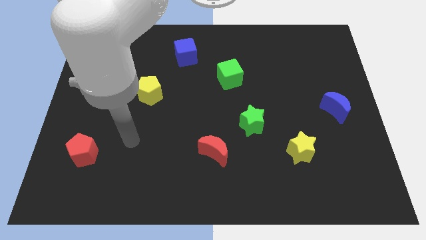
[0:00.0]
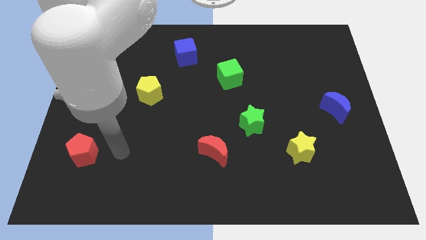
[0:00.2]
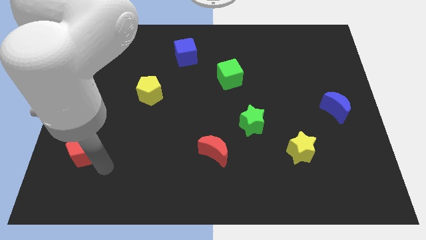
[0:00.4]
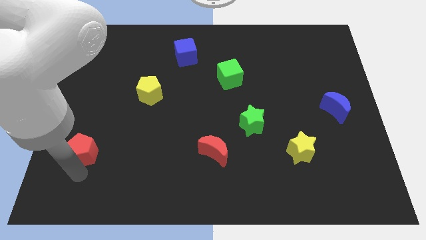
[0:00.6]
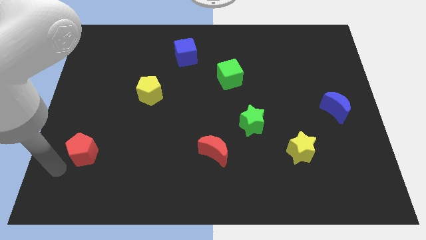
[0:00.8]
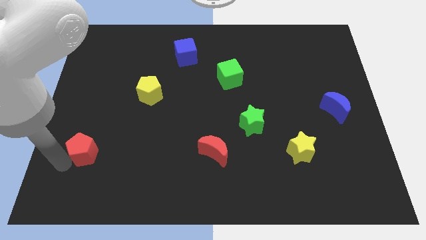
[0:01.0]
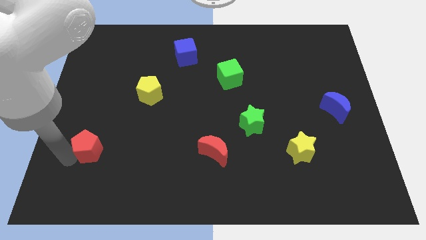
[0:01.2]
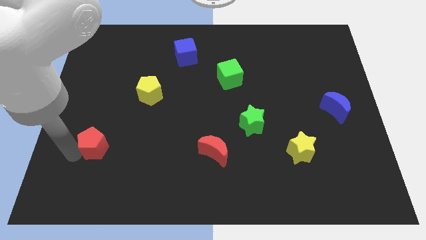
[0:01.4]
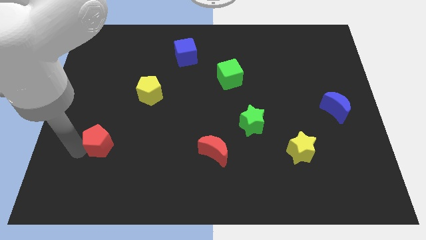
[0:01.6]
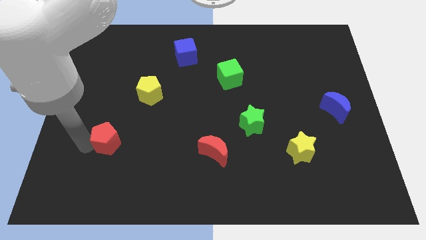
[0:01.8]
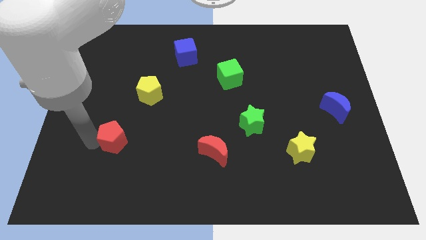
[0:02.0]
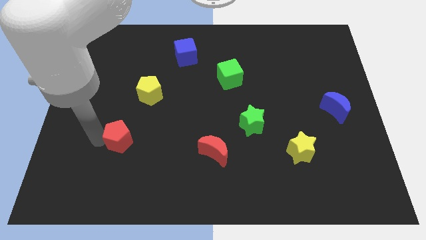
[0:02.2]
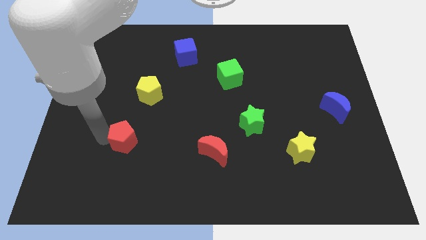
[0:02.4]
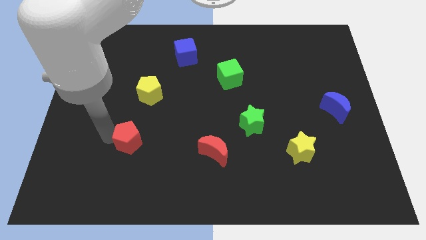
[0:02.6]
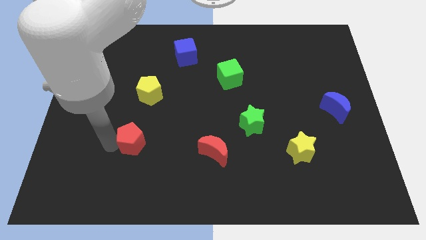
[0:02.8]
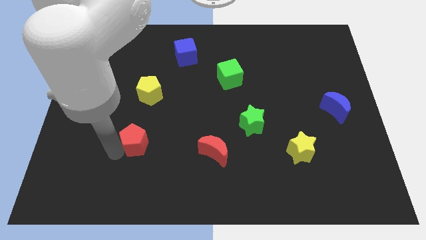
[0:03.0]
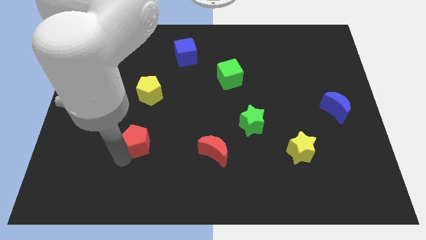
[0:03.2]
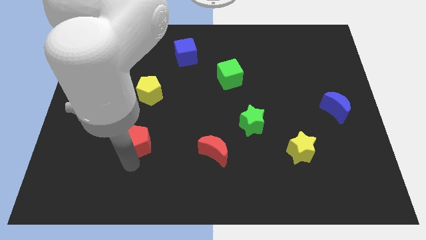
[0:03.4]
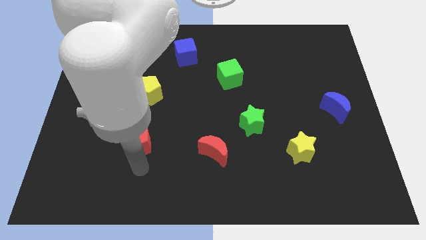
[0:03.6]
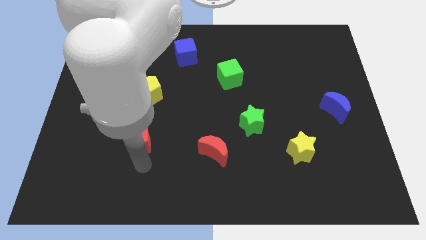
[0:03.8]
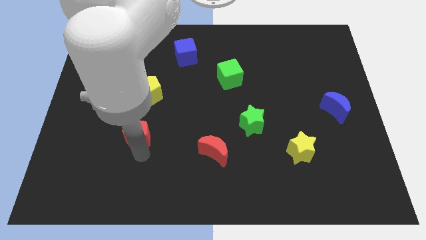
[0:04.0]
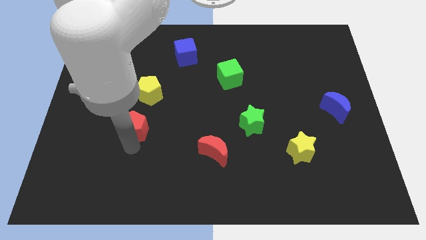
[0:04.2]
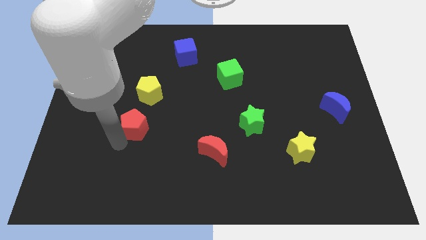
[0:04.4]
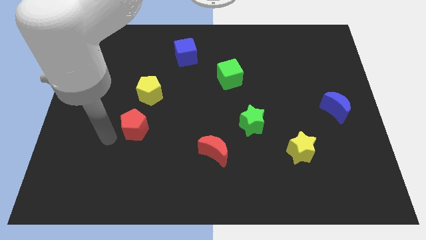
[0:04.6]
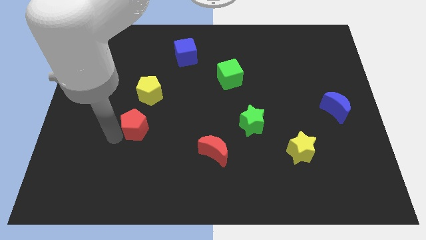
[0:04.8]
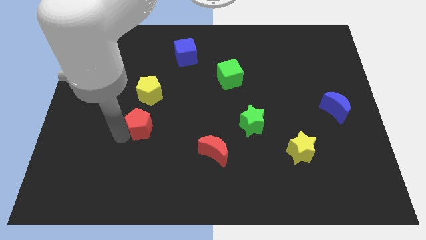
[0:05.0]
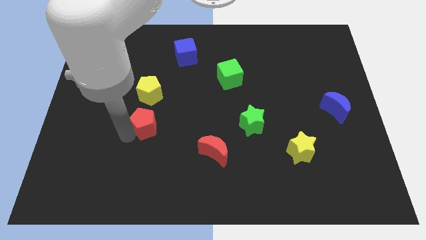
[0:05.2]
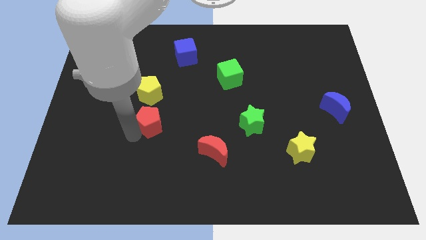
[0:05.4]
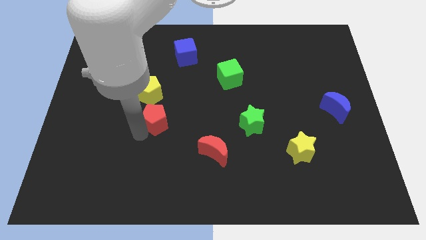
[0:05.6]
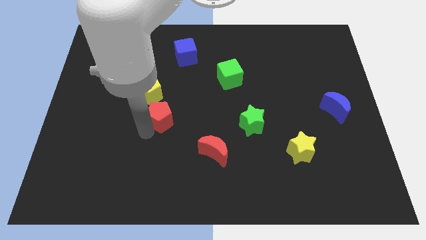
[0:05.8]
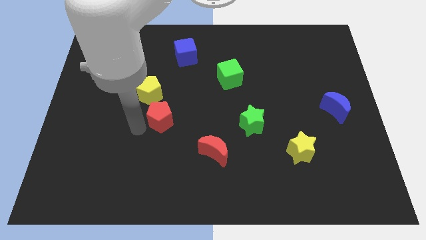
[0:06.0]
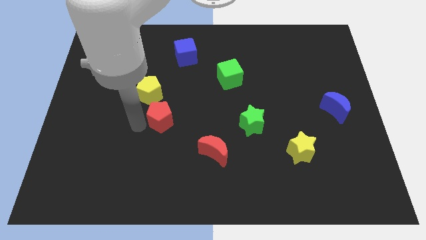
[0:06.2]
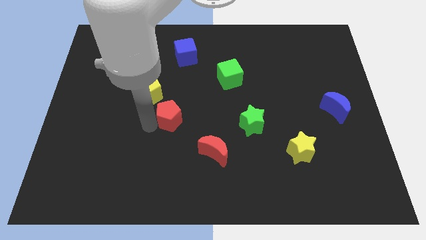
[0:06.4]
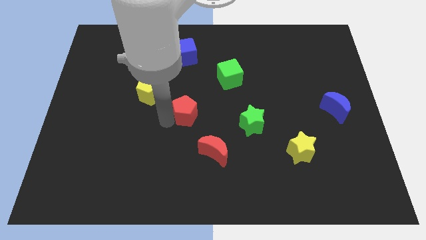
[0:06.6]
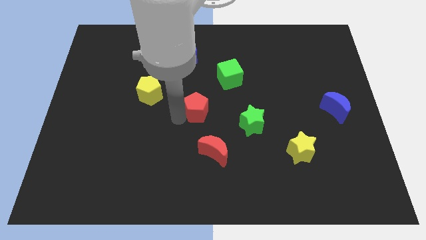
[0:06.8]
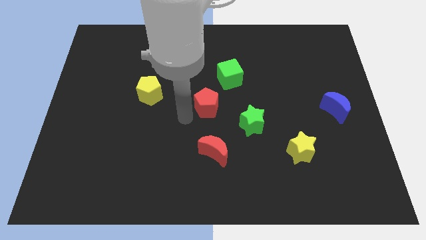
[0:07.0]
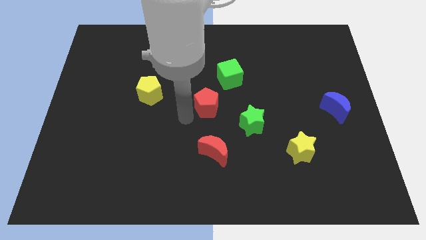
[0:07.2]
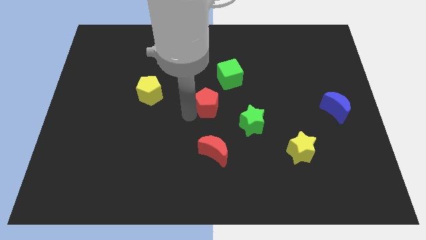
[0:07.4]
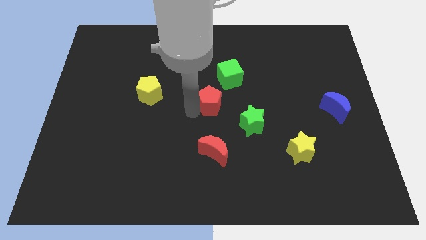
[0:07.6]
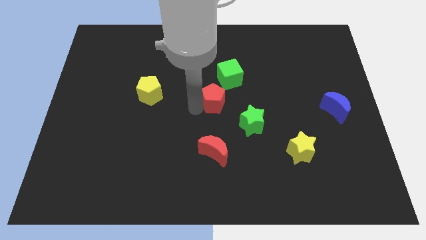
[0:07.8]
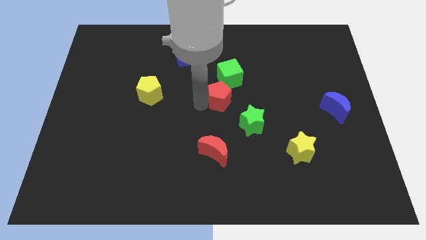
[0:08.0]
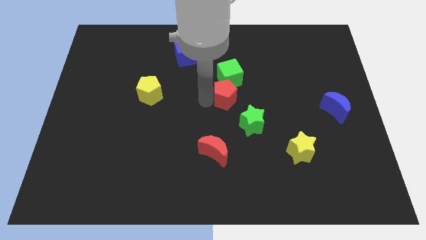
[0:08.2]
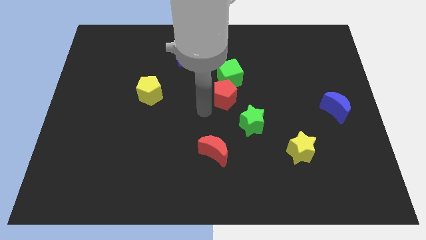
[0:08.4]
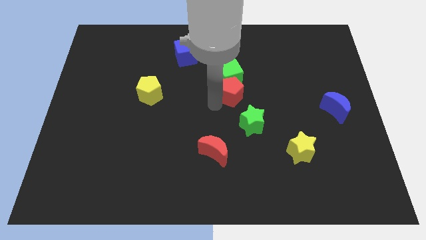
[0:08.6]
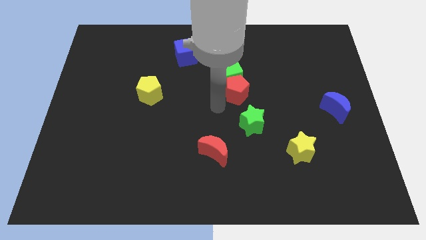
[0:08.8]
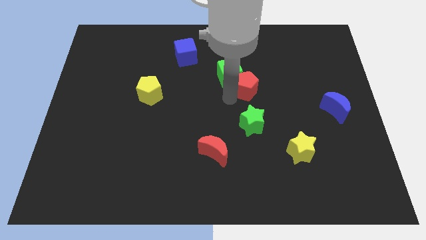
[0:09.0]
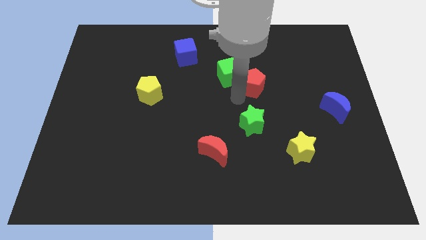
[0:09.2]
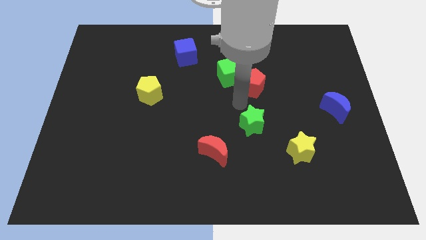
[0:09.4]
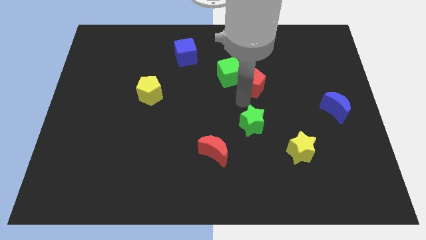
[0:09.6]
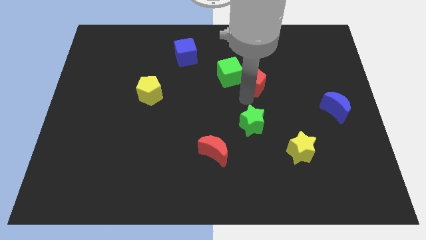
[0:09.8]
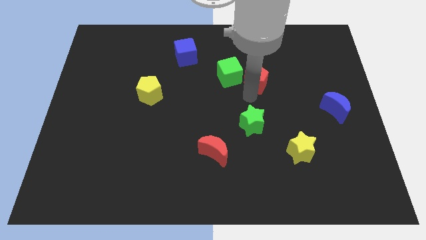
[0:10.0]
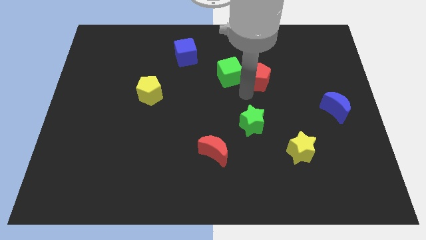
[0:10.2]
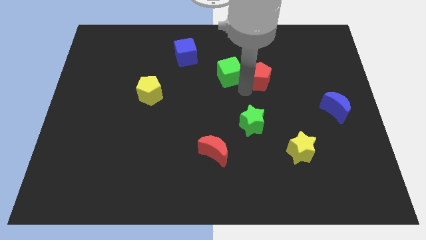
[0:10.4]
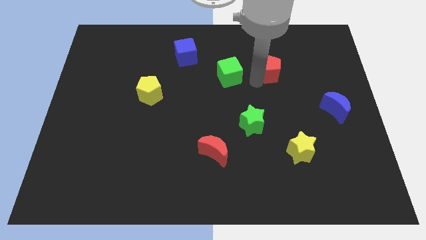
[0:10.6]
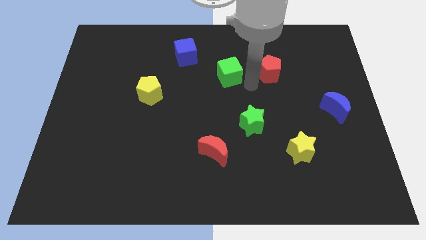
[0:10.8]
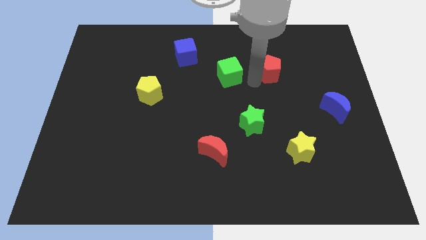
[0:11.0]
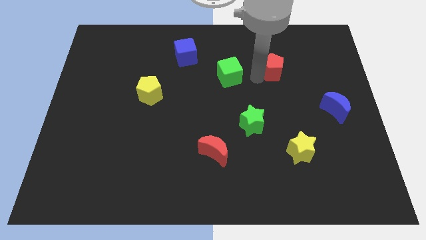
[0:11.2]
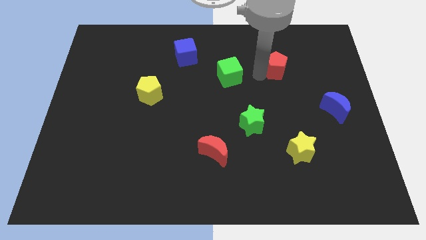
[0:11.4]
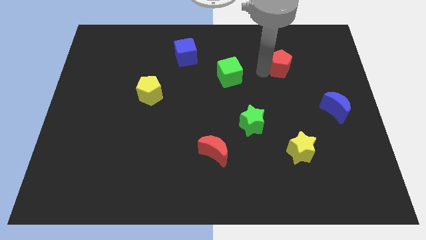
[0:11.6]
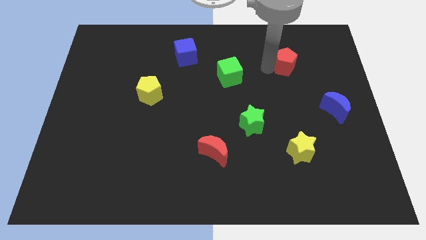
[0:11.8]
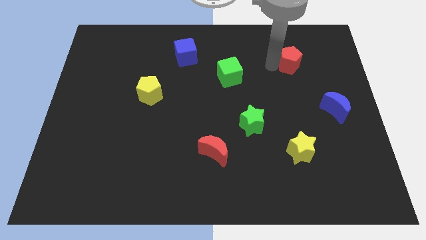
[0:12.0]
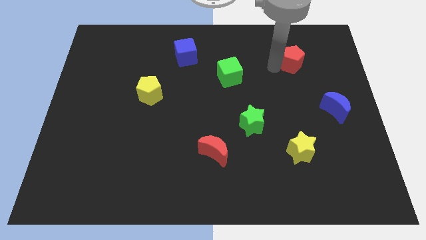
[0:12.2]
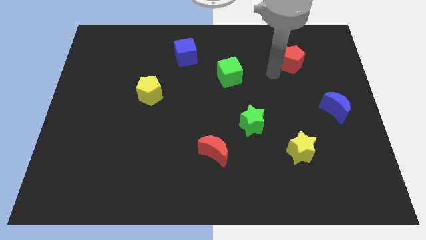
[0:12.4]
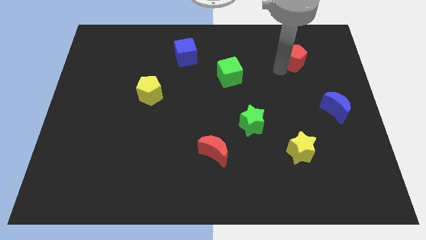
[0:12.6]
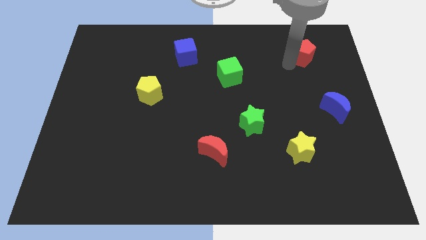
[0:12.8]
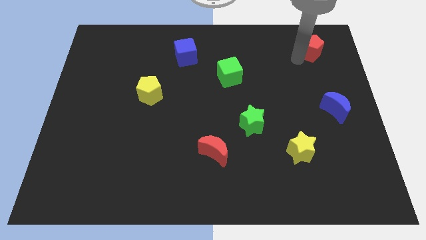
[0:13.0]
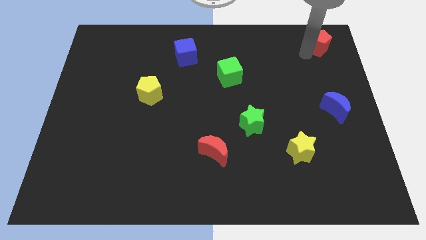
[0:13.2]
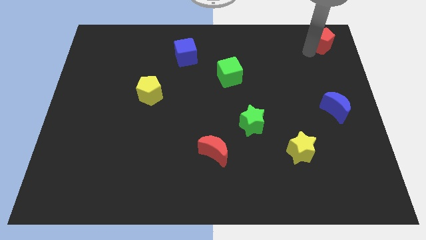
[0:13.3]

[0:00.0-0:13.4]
push the red pentagon to the top right corner
